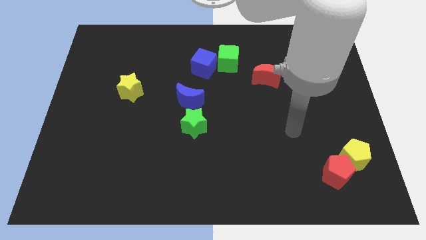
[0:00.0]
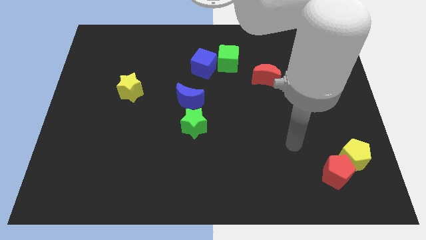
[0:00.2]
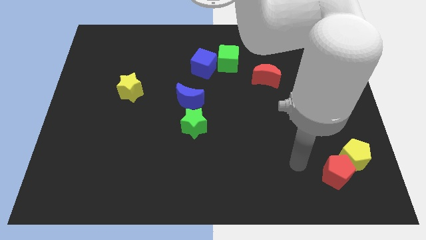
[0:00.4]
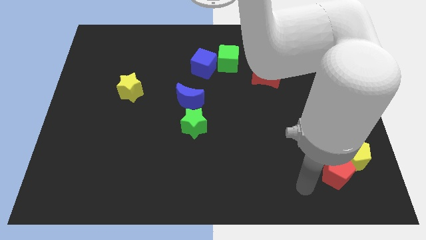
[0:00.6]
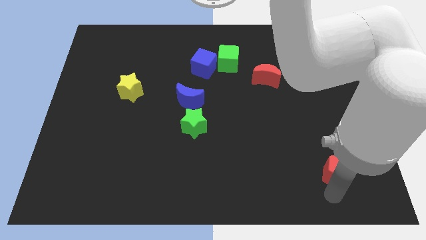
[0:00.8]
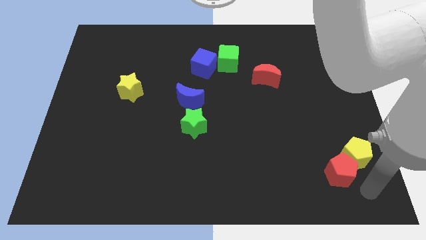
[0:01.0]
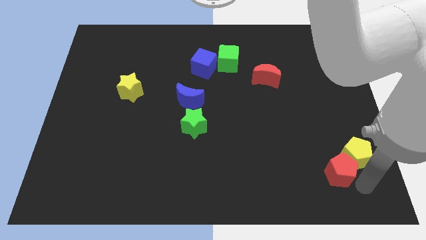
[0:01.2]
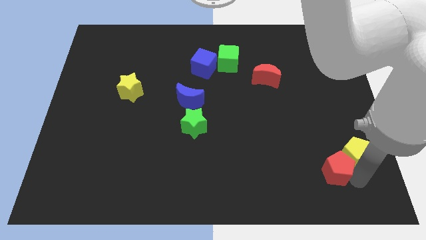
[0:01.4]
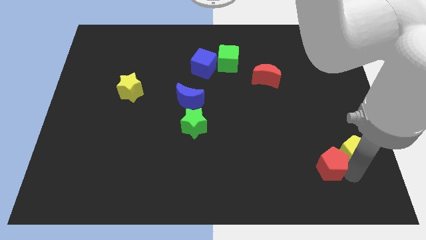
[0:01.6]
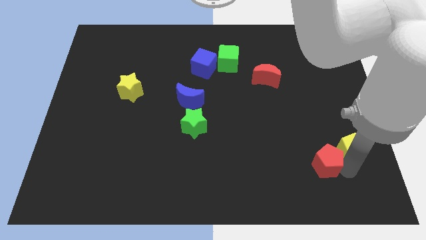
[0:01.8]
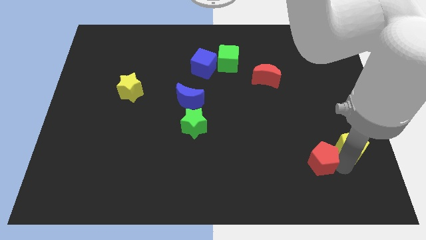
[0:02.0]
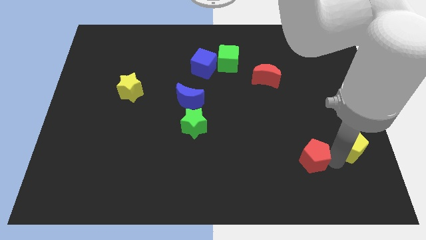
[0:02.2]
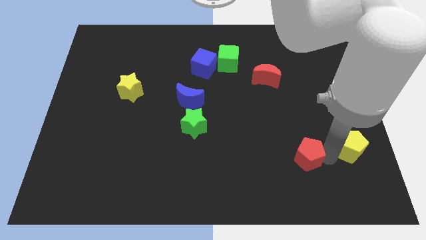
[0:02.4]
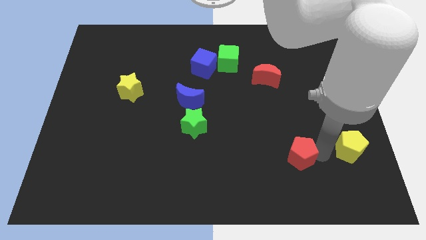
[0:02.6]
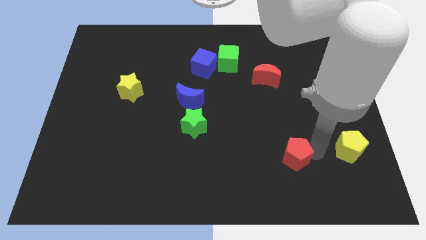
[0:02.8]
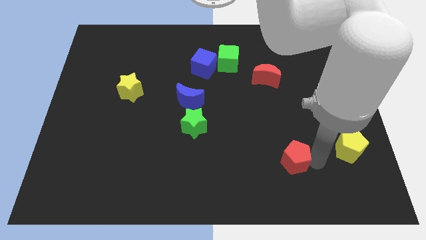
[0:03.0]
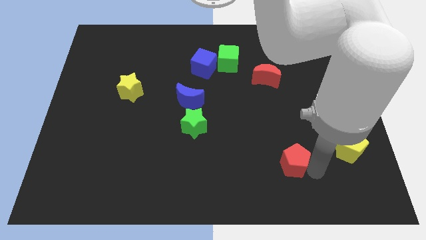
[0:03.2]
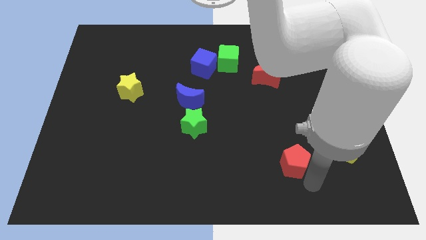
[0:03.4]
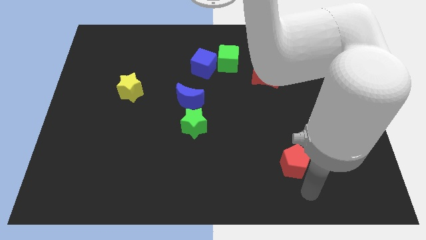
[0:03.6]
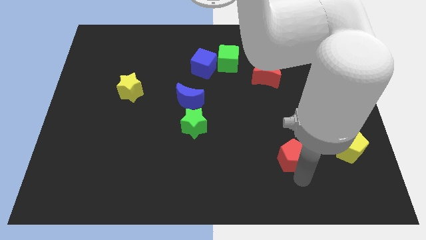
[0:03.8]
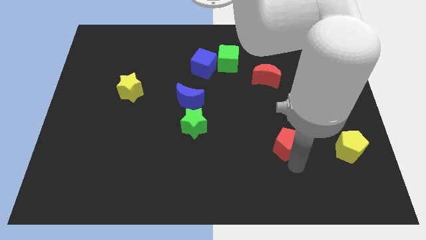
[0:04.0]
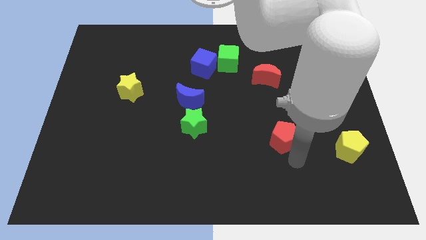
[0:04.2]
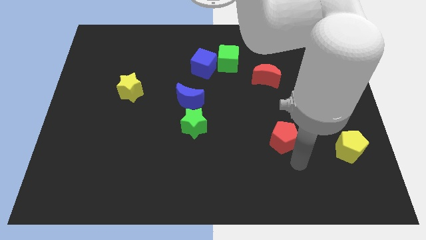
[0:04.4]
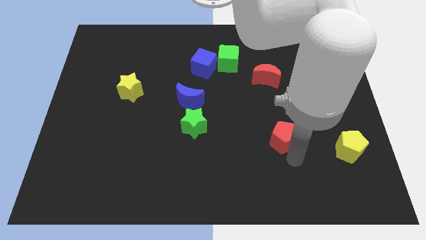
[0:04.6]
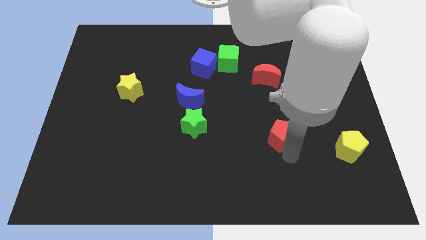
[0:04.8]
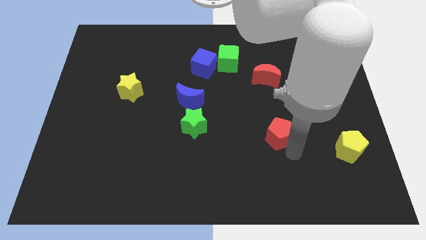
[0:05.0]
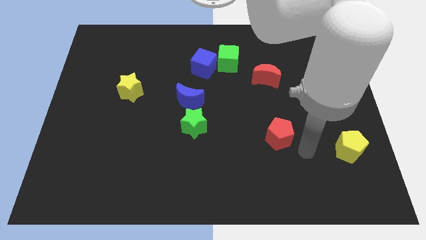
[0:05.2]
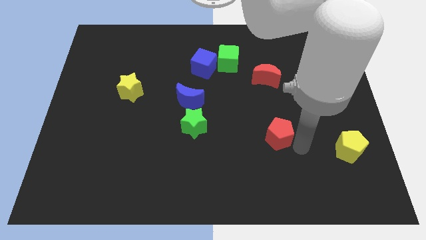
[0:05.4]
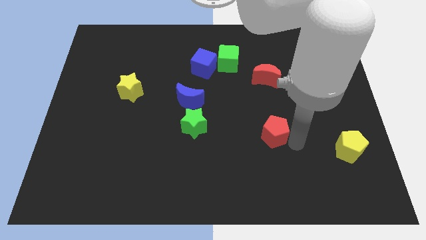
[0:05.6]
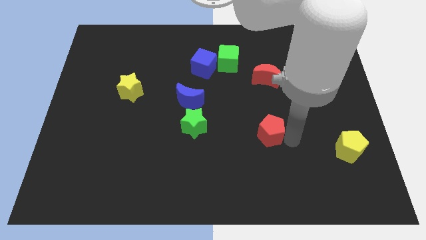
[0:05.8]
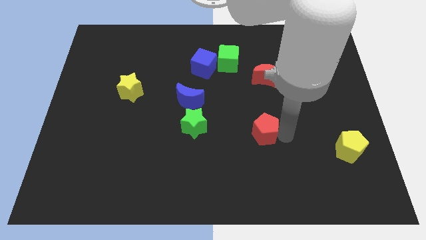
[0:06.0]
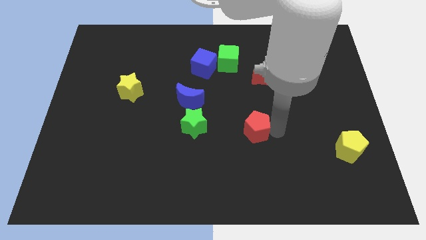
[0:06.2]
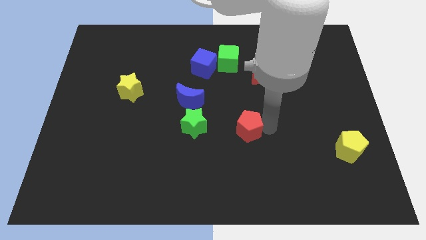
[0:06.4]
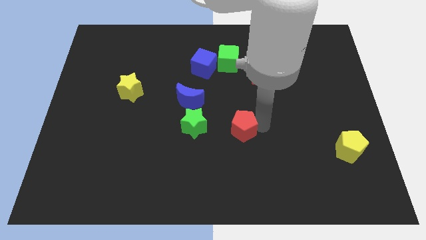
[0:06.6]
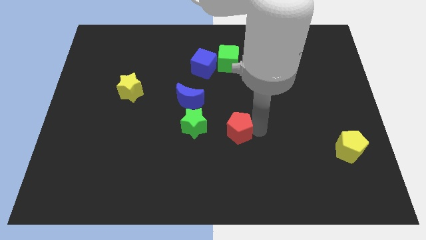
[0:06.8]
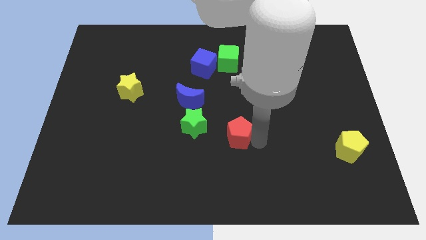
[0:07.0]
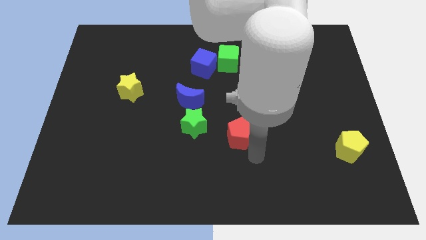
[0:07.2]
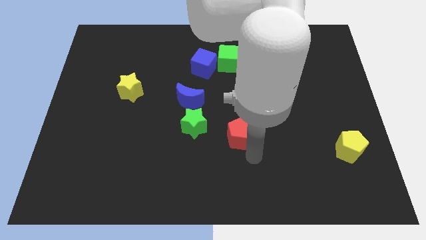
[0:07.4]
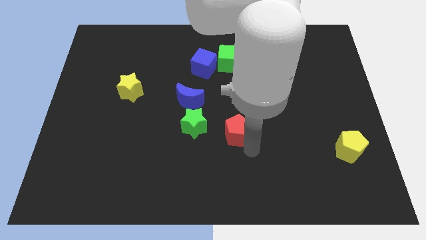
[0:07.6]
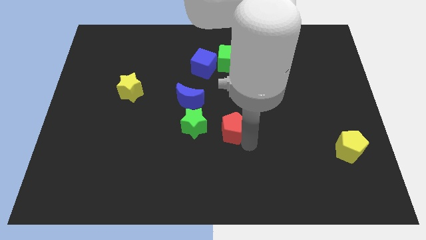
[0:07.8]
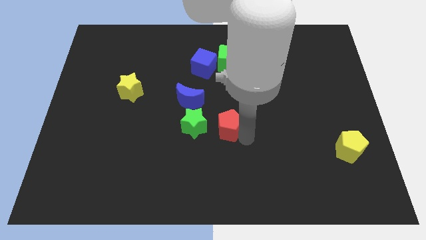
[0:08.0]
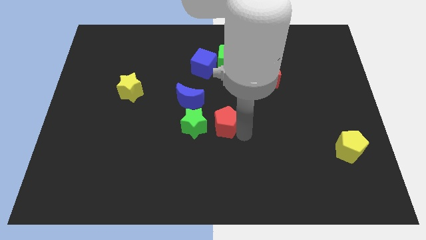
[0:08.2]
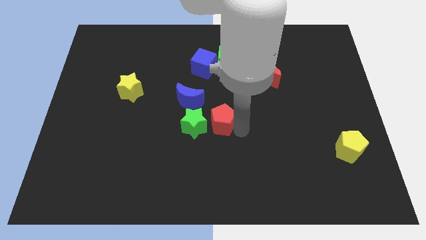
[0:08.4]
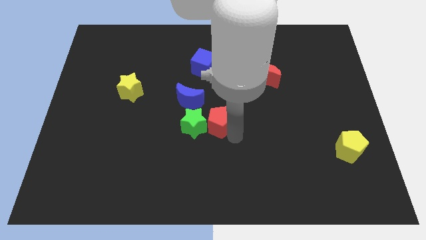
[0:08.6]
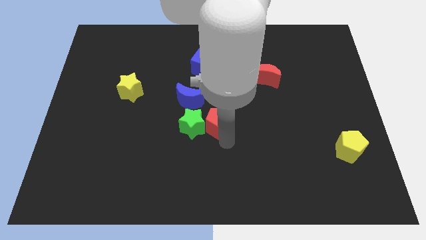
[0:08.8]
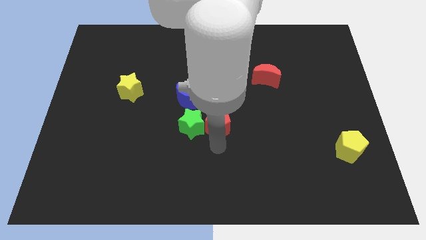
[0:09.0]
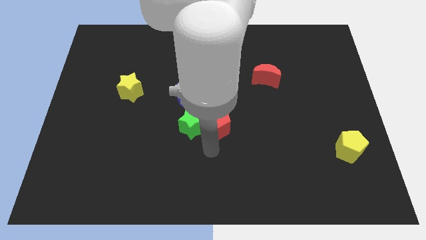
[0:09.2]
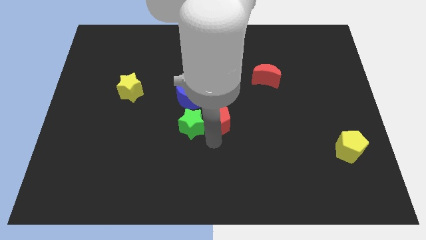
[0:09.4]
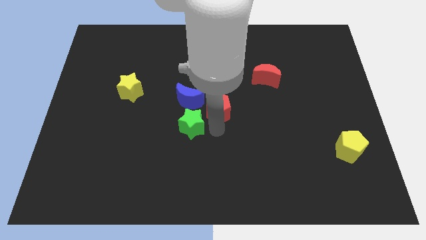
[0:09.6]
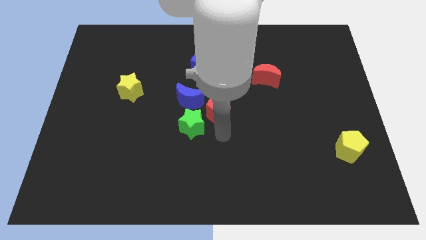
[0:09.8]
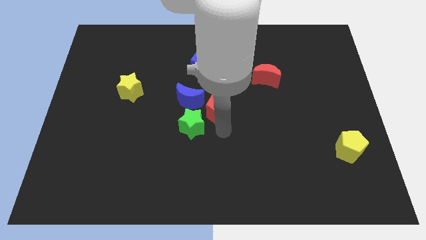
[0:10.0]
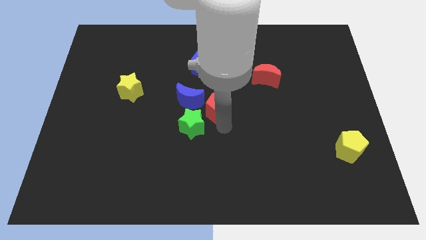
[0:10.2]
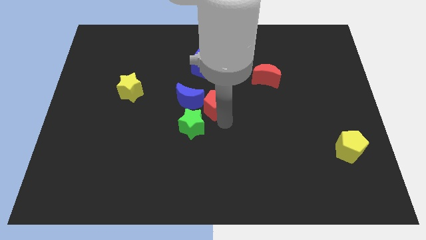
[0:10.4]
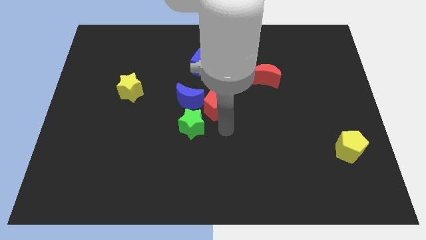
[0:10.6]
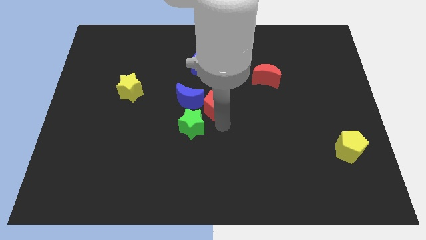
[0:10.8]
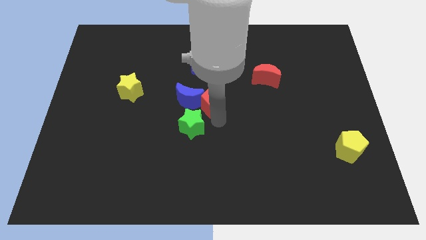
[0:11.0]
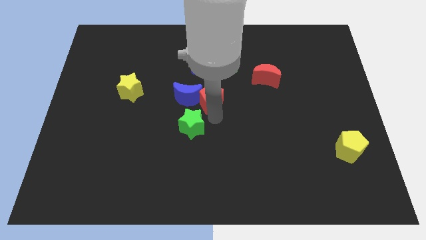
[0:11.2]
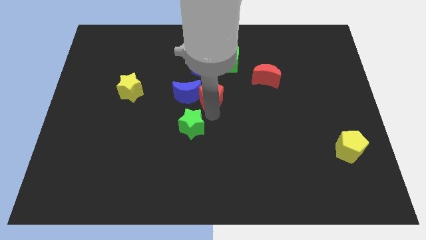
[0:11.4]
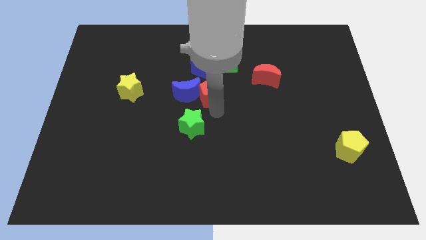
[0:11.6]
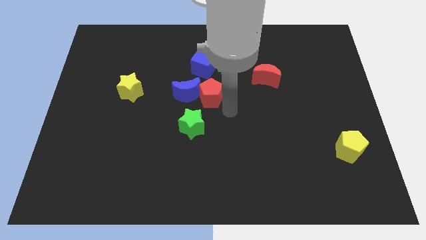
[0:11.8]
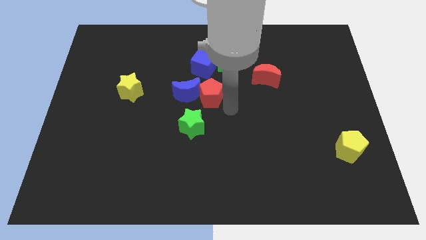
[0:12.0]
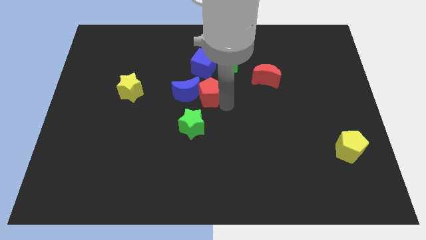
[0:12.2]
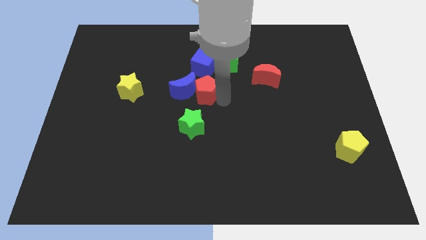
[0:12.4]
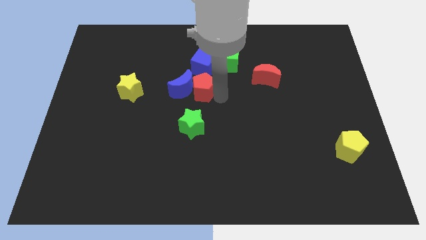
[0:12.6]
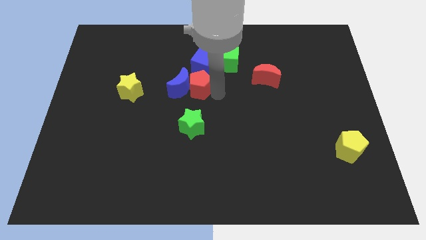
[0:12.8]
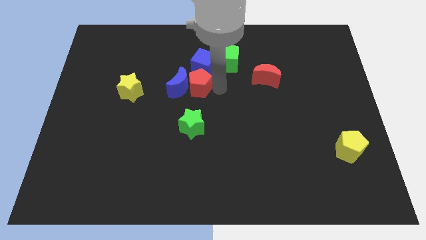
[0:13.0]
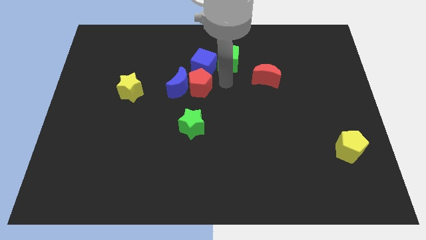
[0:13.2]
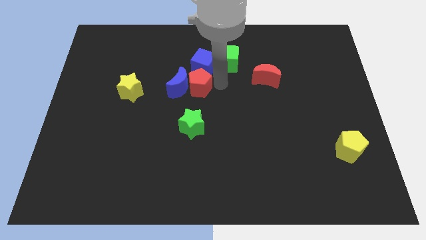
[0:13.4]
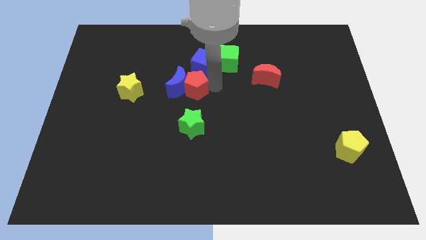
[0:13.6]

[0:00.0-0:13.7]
put the red pentagon right of the yellow star
